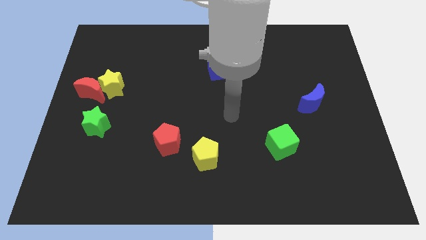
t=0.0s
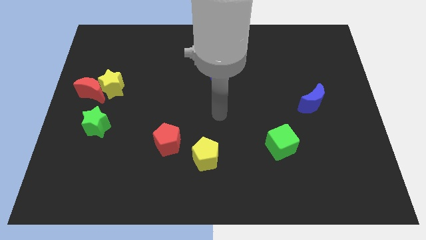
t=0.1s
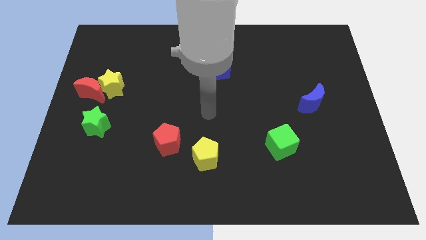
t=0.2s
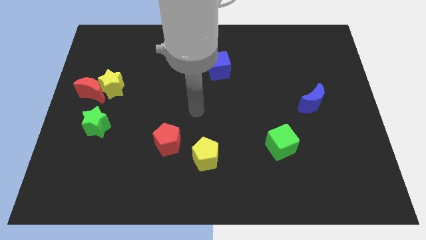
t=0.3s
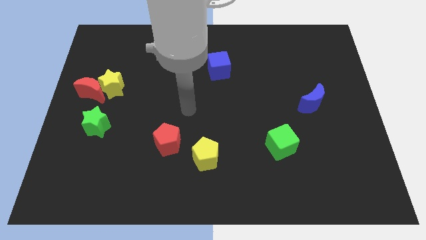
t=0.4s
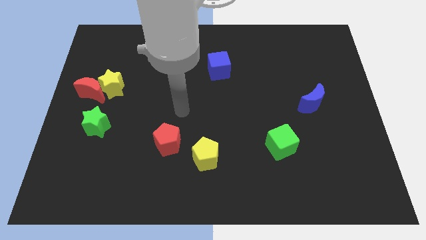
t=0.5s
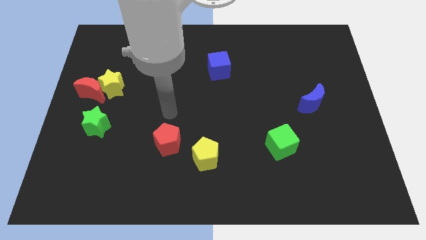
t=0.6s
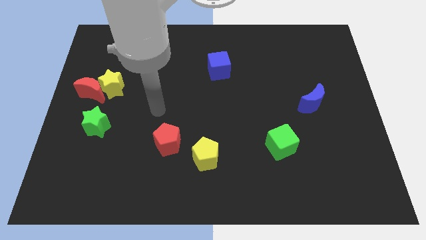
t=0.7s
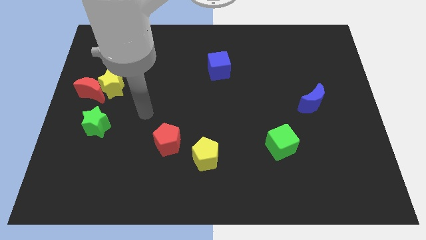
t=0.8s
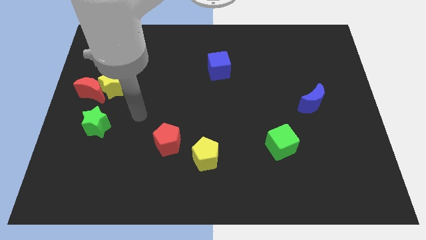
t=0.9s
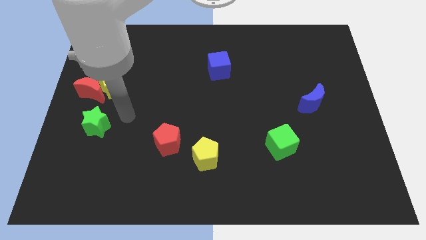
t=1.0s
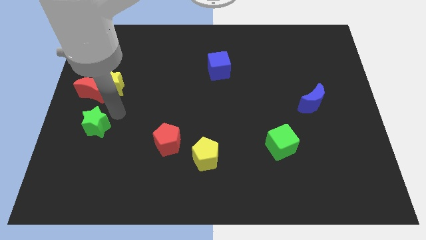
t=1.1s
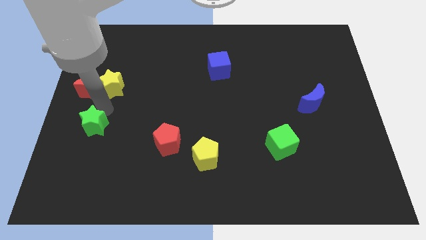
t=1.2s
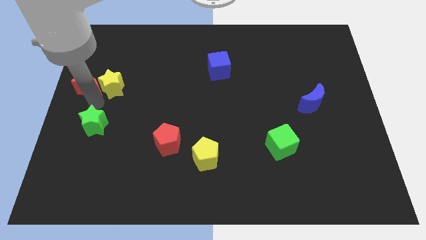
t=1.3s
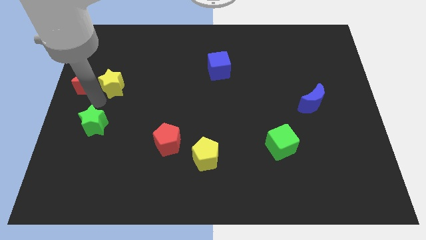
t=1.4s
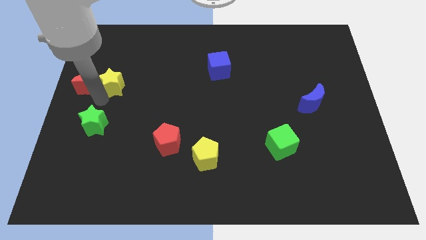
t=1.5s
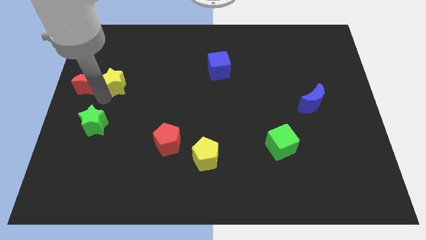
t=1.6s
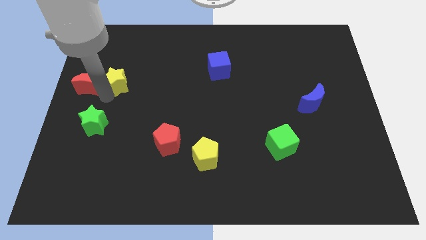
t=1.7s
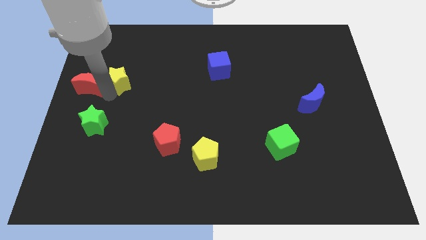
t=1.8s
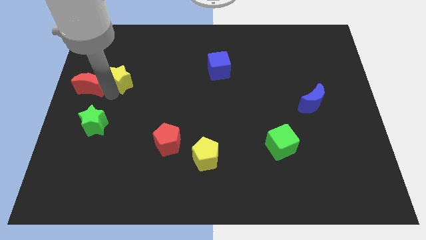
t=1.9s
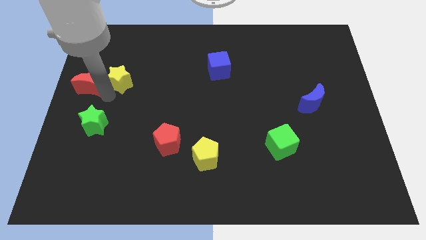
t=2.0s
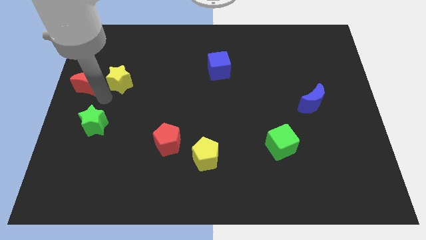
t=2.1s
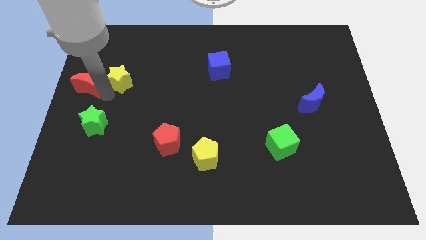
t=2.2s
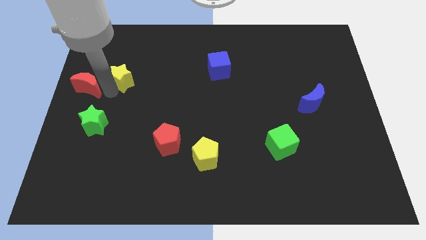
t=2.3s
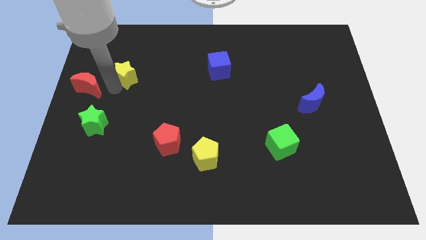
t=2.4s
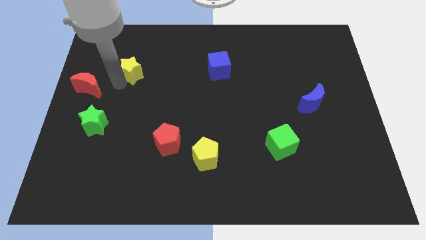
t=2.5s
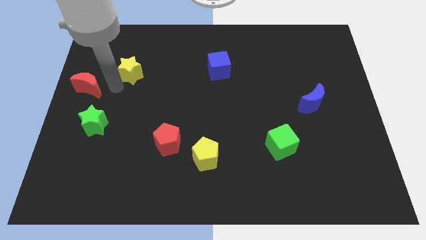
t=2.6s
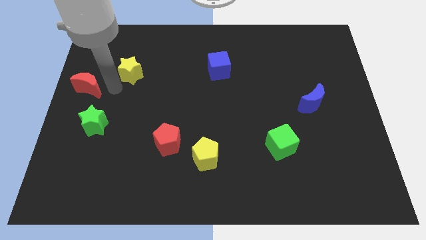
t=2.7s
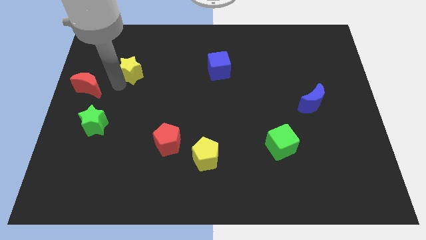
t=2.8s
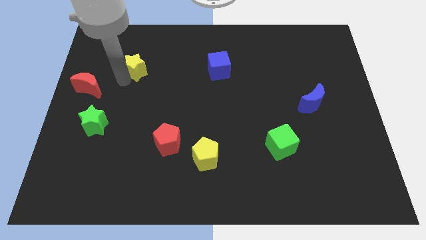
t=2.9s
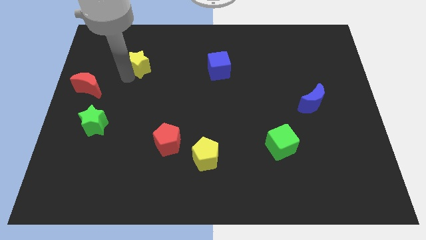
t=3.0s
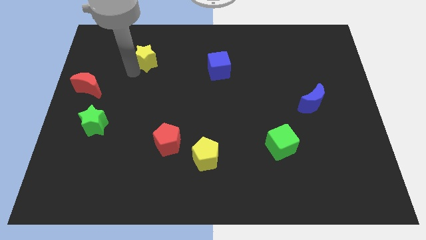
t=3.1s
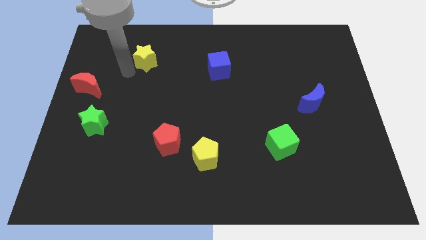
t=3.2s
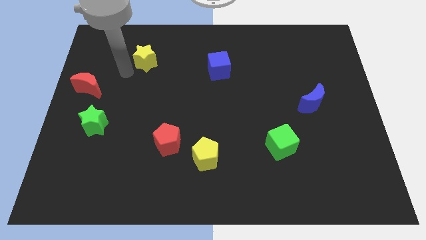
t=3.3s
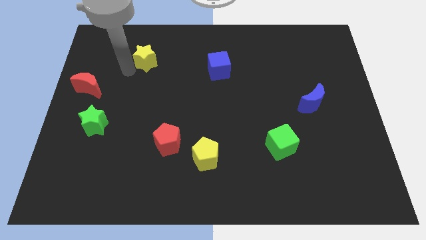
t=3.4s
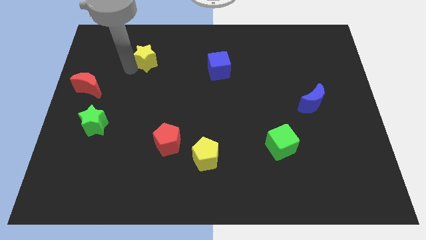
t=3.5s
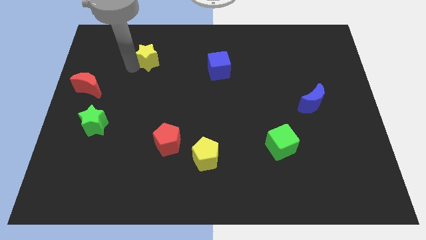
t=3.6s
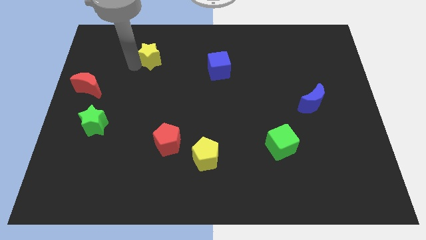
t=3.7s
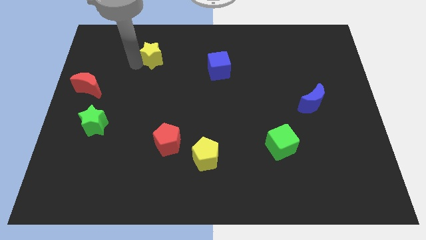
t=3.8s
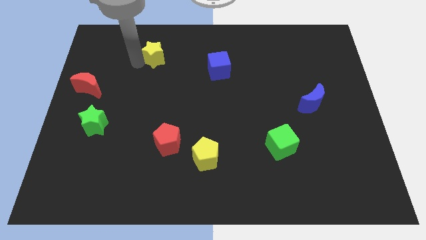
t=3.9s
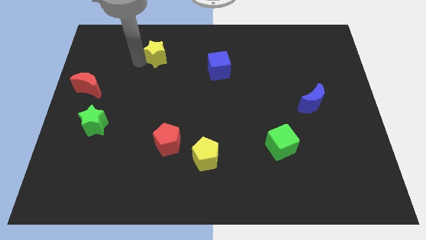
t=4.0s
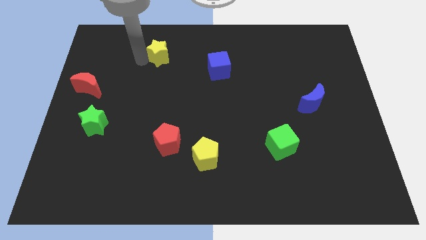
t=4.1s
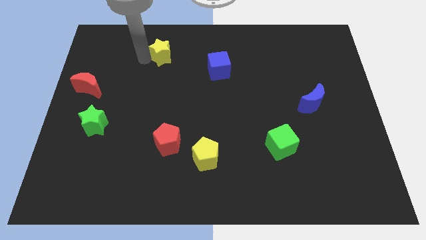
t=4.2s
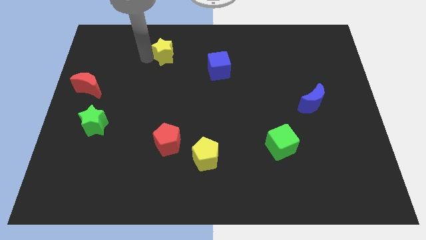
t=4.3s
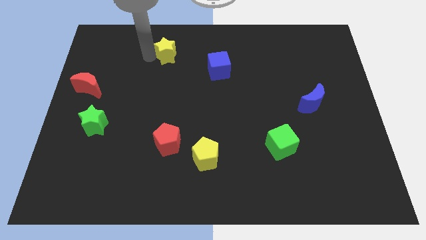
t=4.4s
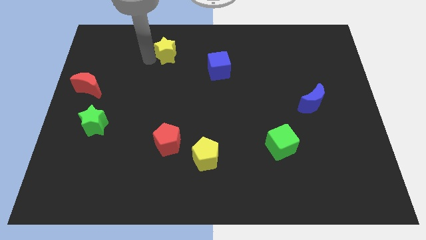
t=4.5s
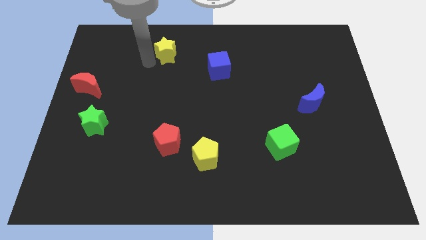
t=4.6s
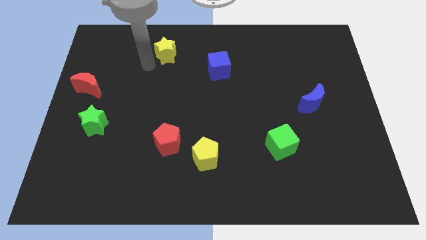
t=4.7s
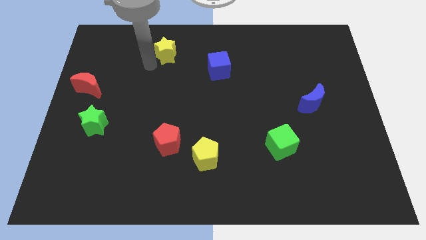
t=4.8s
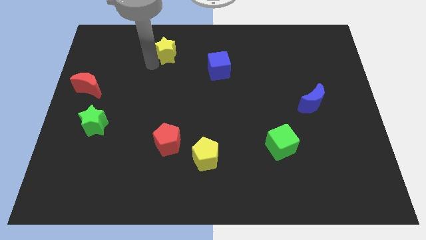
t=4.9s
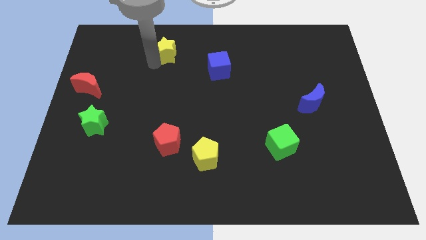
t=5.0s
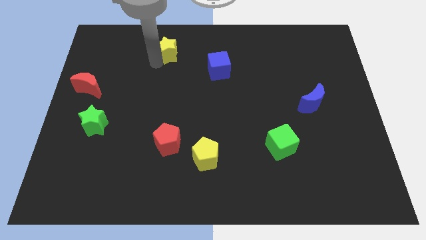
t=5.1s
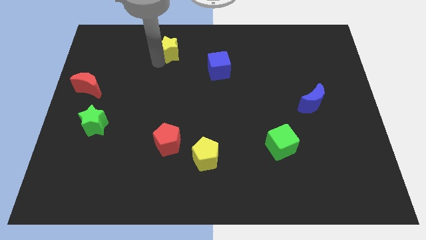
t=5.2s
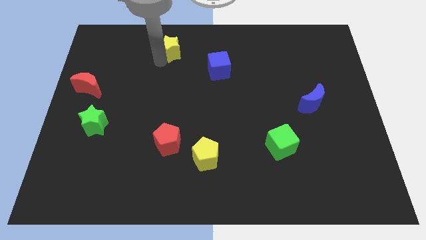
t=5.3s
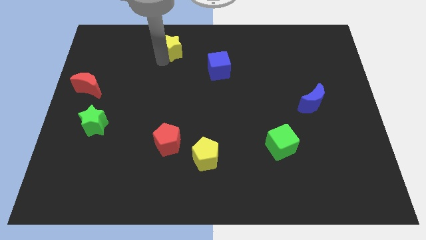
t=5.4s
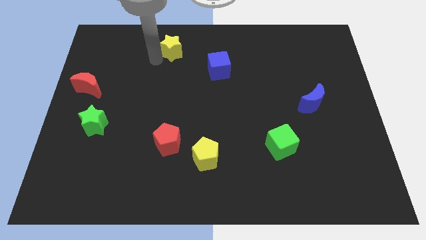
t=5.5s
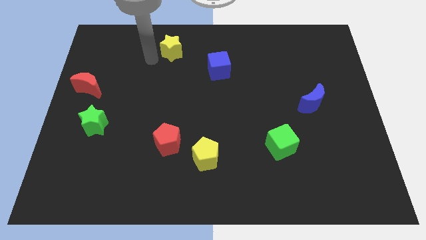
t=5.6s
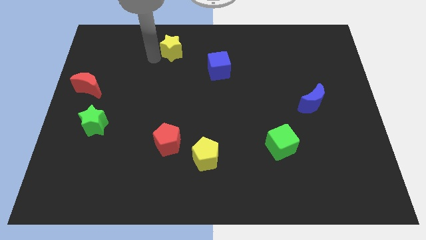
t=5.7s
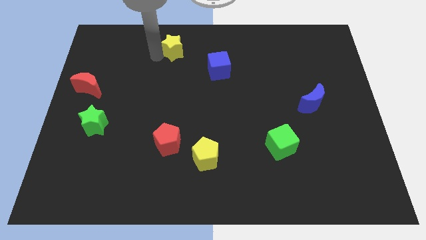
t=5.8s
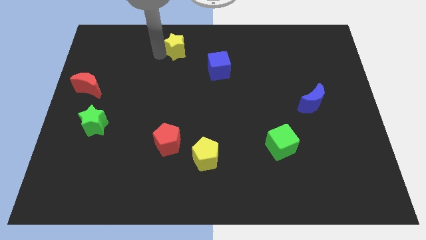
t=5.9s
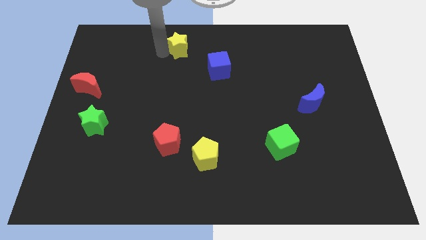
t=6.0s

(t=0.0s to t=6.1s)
push the yellow star to the towards your base

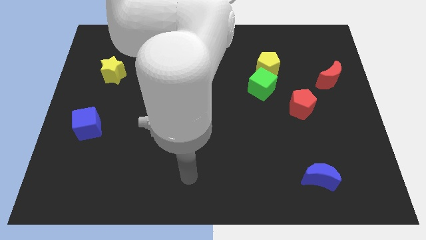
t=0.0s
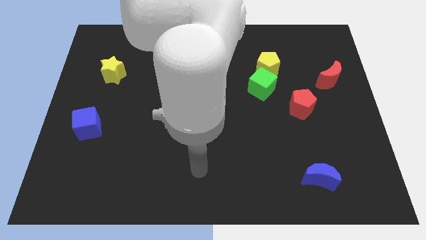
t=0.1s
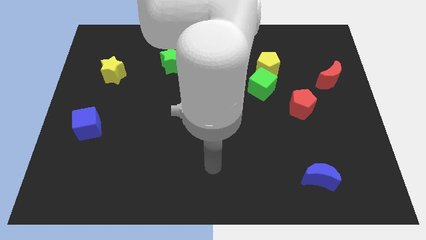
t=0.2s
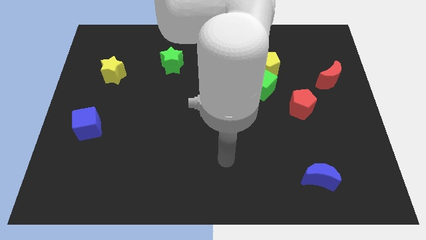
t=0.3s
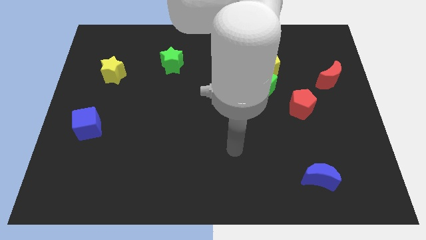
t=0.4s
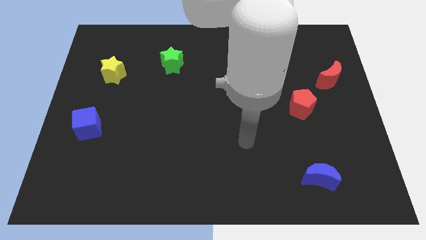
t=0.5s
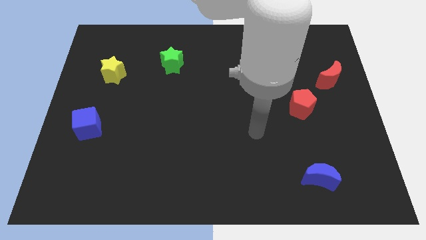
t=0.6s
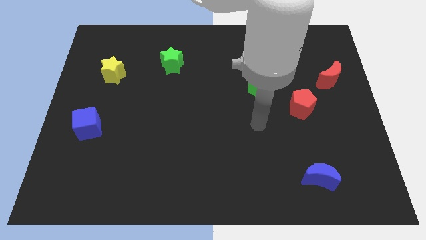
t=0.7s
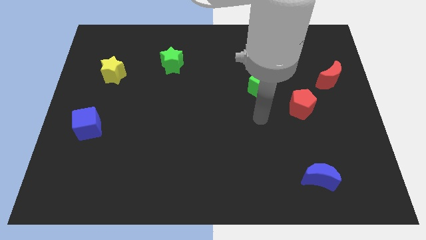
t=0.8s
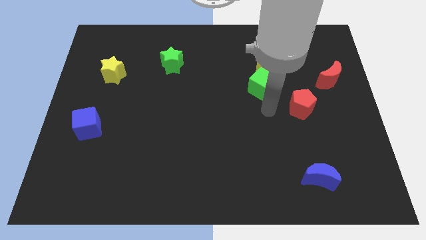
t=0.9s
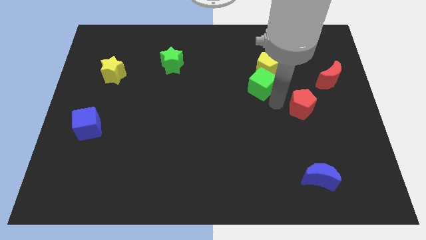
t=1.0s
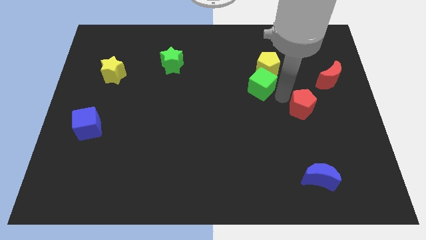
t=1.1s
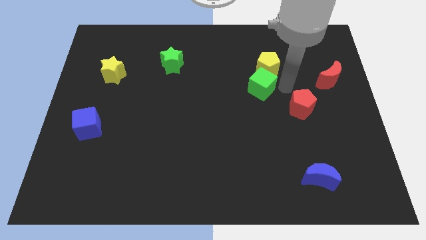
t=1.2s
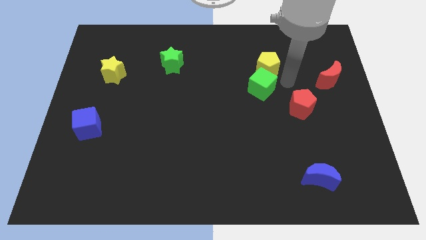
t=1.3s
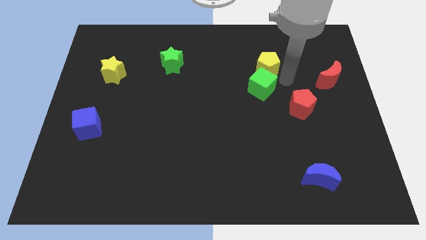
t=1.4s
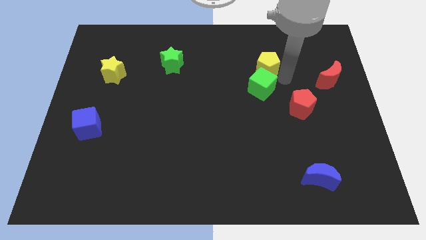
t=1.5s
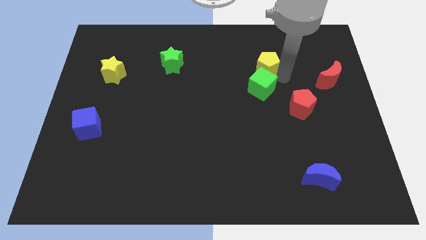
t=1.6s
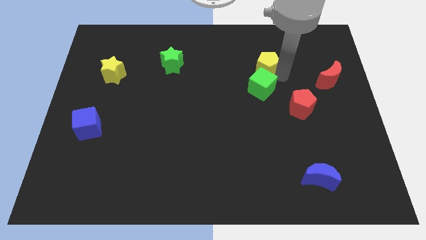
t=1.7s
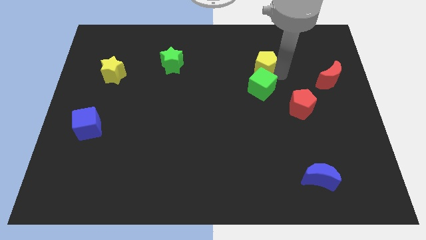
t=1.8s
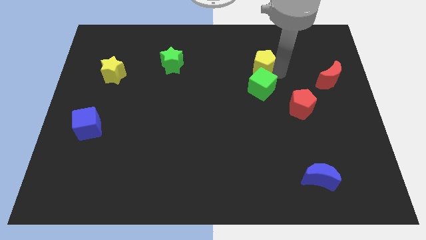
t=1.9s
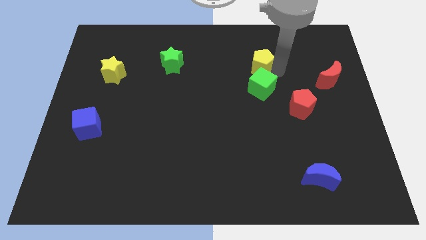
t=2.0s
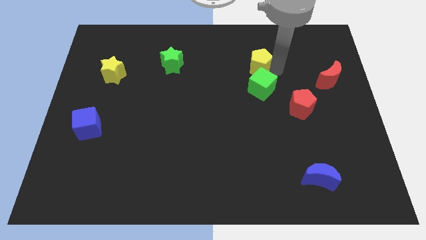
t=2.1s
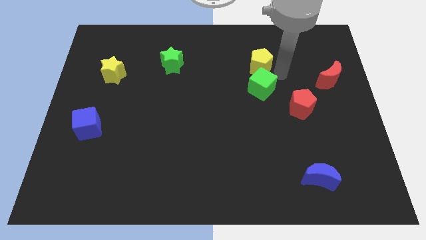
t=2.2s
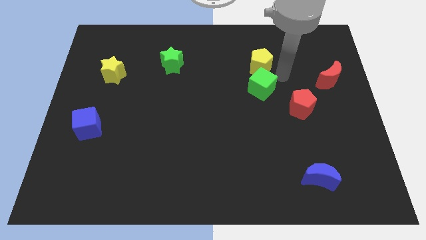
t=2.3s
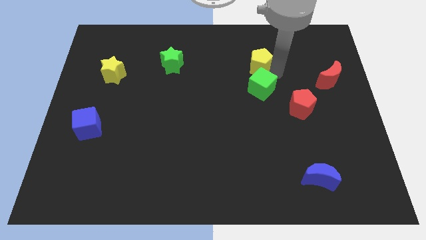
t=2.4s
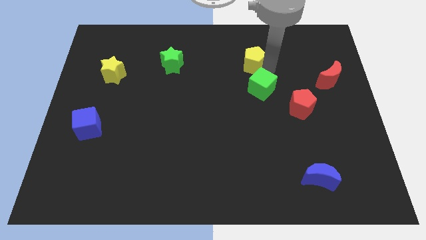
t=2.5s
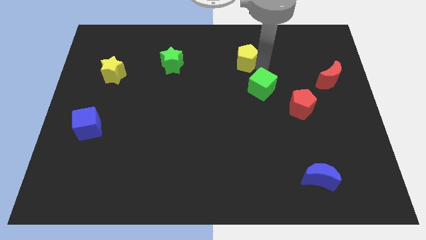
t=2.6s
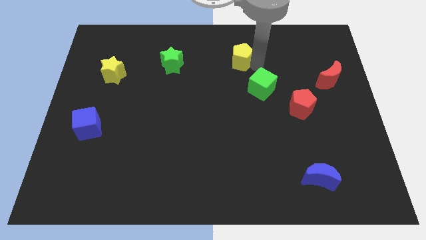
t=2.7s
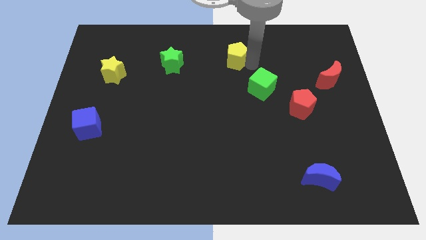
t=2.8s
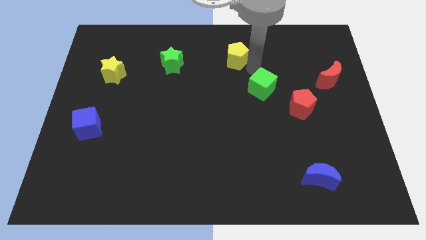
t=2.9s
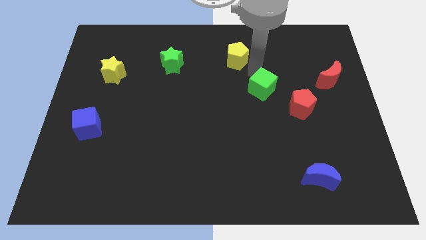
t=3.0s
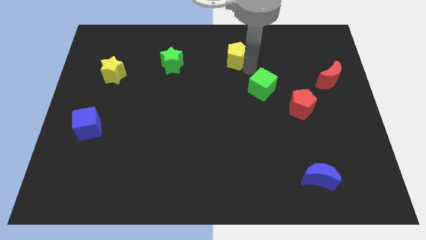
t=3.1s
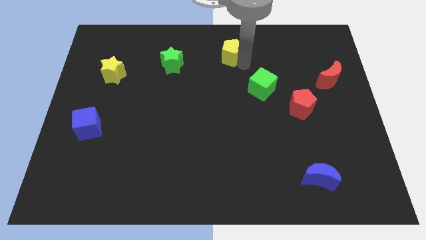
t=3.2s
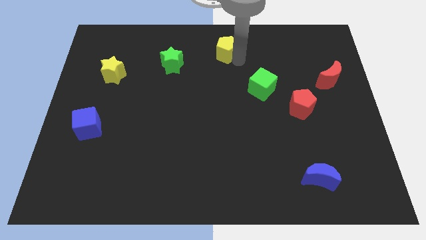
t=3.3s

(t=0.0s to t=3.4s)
push the yellow pentagon to the top side
